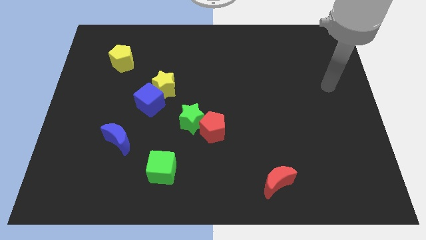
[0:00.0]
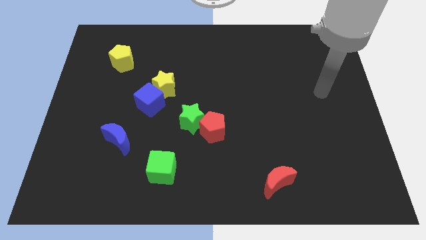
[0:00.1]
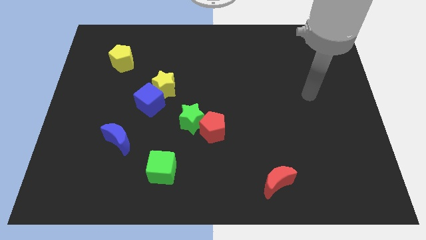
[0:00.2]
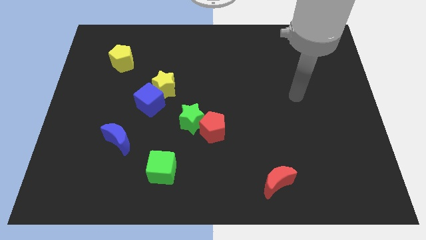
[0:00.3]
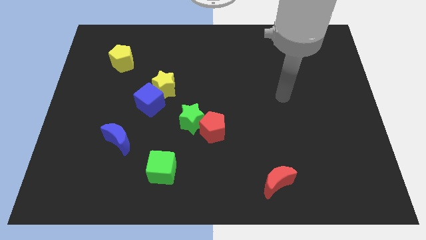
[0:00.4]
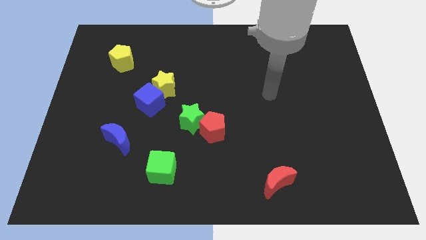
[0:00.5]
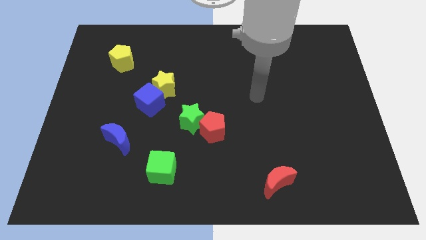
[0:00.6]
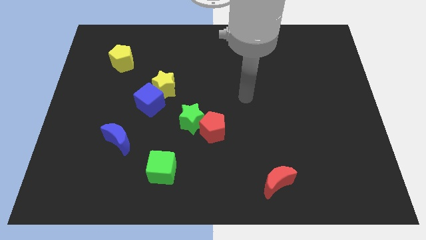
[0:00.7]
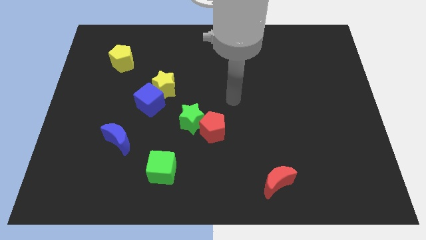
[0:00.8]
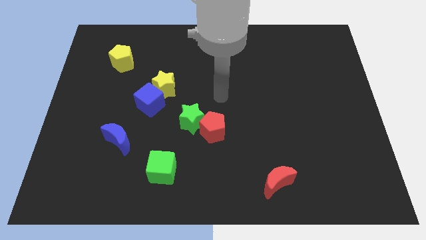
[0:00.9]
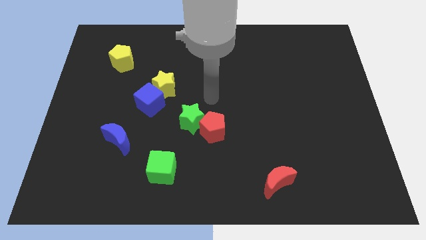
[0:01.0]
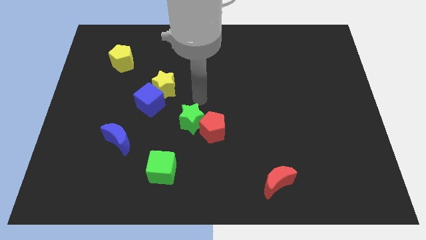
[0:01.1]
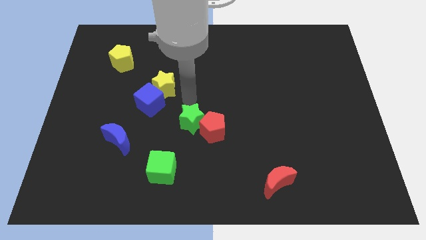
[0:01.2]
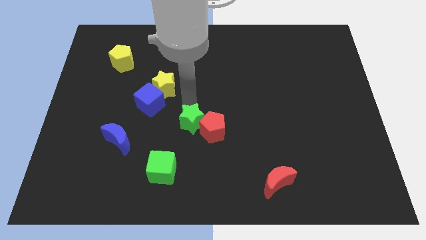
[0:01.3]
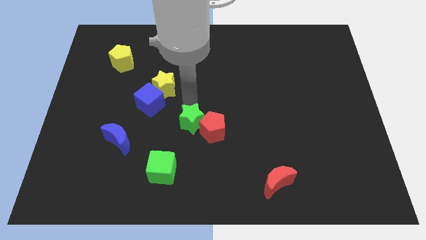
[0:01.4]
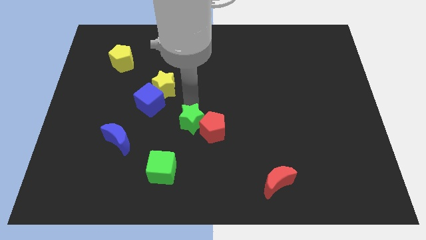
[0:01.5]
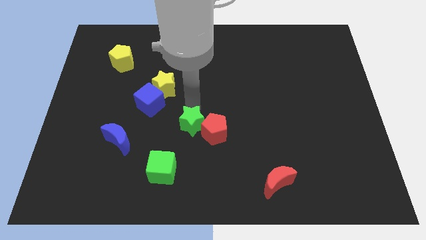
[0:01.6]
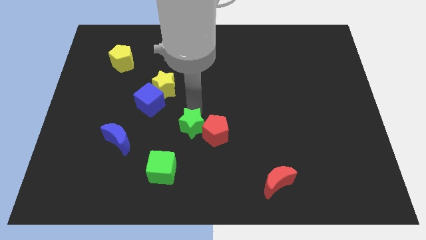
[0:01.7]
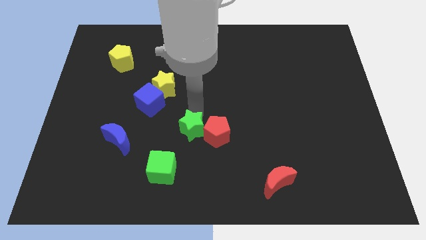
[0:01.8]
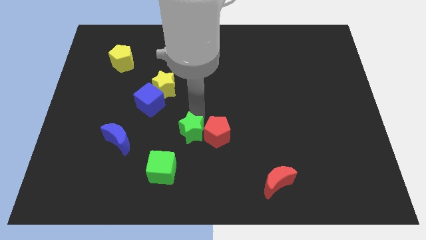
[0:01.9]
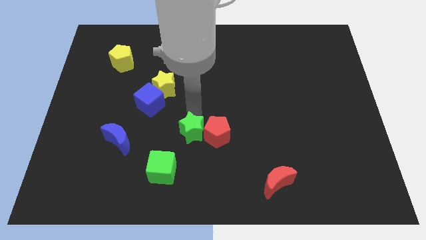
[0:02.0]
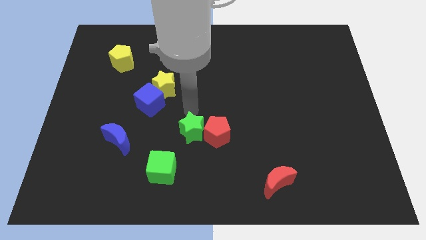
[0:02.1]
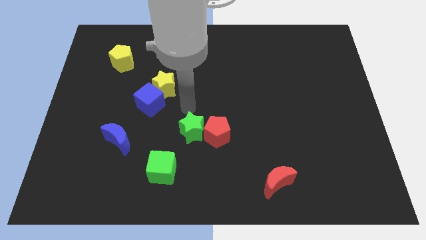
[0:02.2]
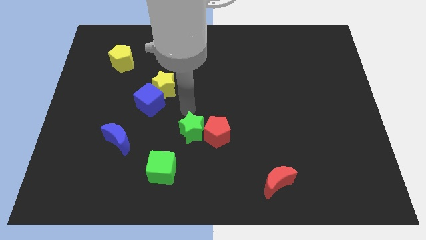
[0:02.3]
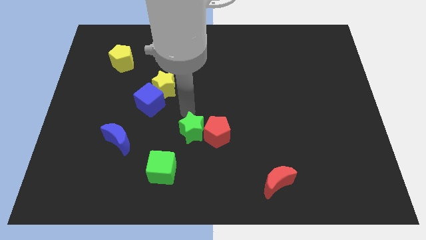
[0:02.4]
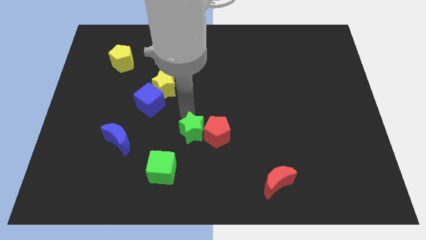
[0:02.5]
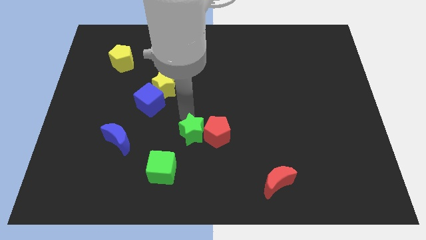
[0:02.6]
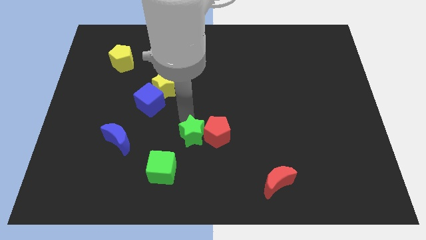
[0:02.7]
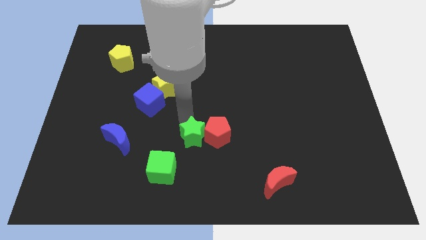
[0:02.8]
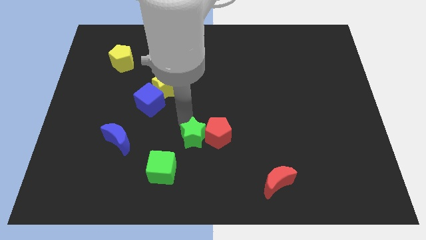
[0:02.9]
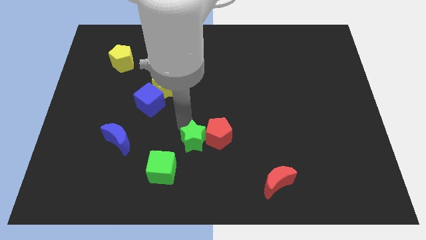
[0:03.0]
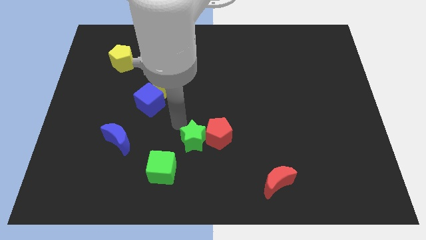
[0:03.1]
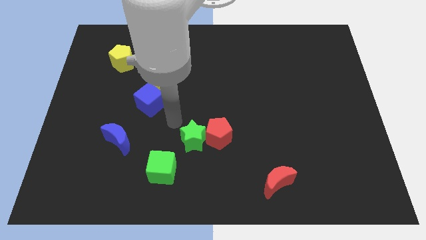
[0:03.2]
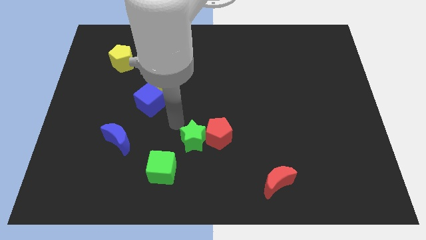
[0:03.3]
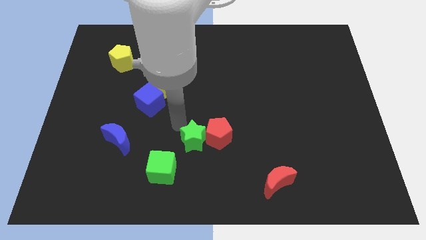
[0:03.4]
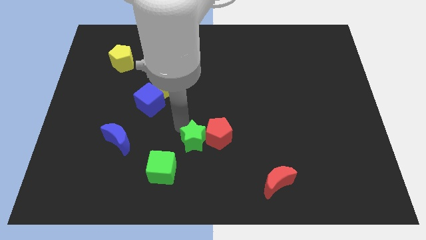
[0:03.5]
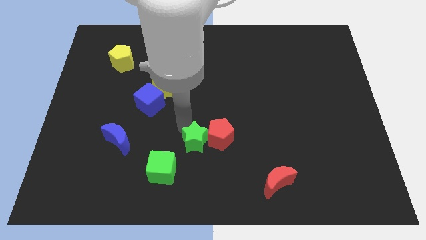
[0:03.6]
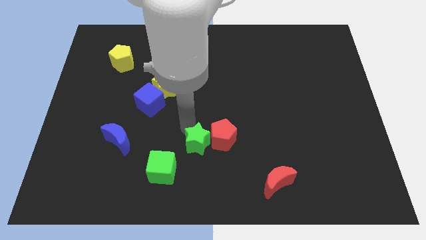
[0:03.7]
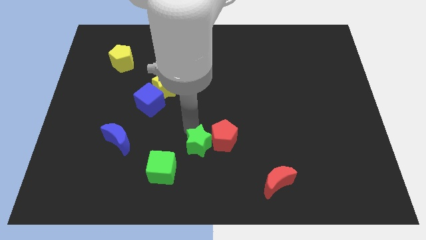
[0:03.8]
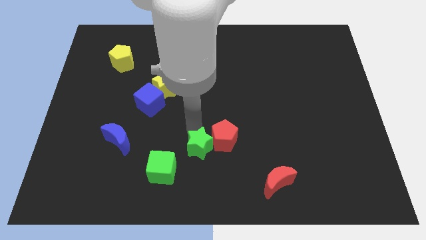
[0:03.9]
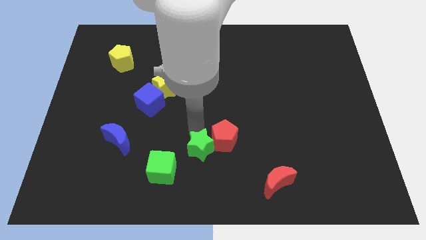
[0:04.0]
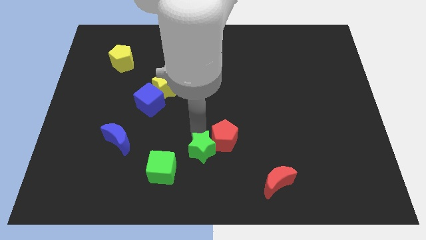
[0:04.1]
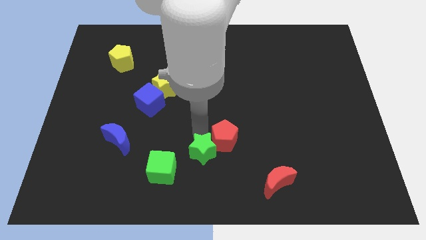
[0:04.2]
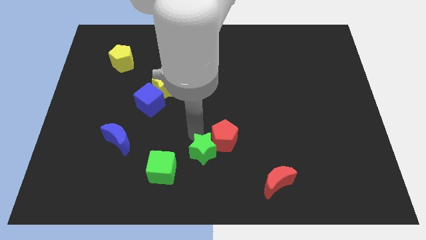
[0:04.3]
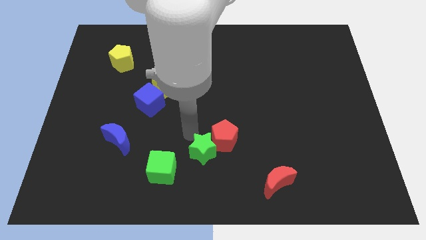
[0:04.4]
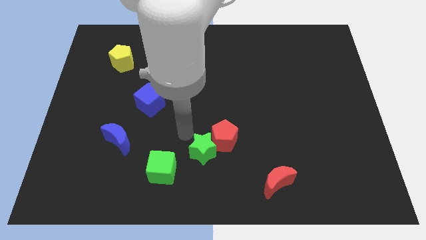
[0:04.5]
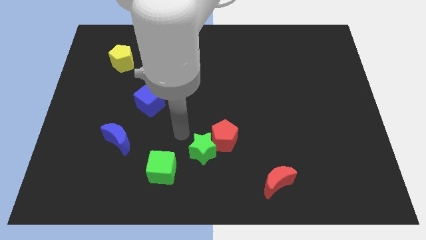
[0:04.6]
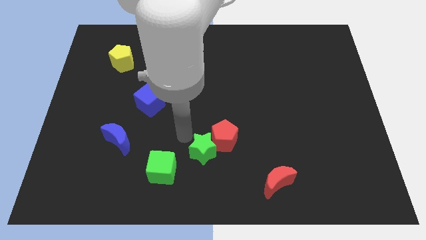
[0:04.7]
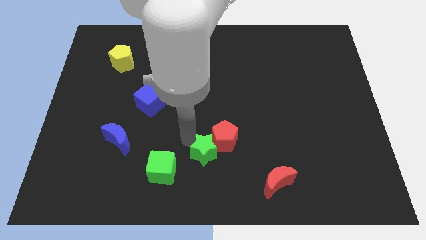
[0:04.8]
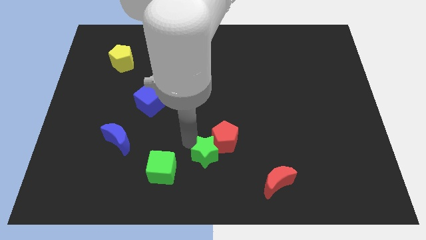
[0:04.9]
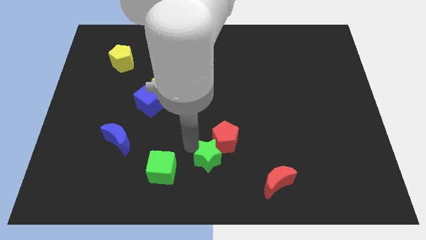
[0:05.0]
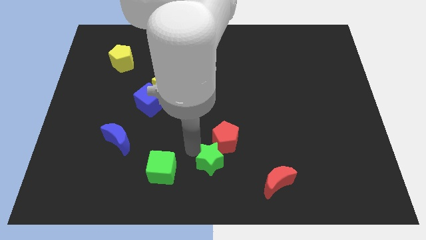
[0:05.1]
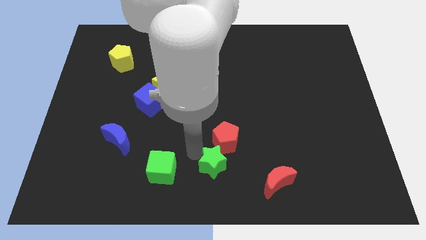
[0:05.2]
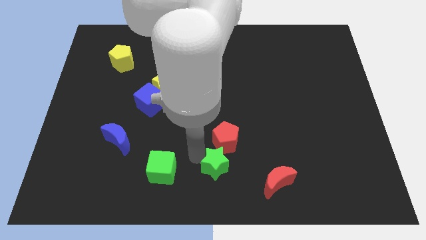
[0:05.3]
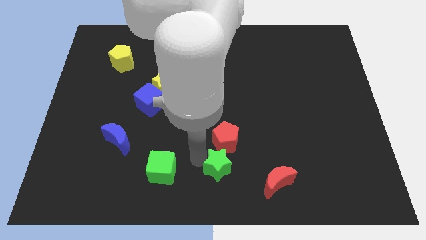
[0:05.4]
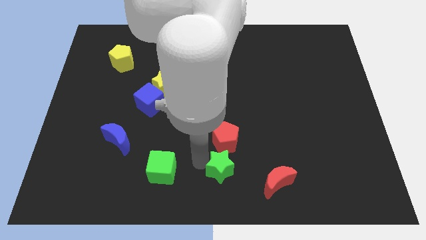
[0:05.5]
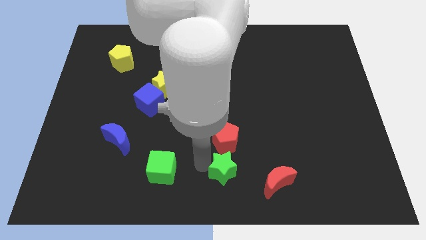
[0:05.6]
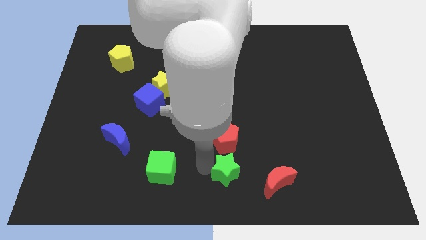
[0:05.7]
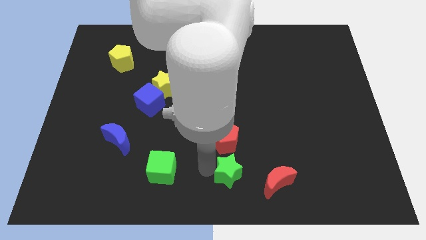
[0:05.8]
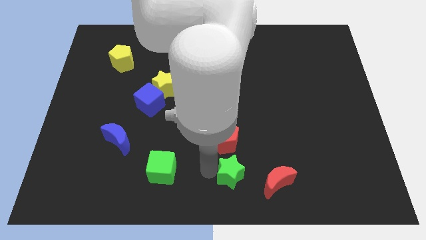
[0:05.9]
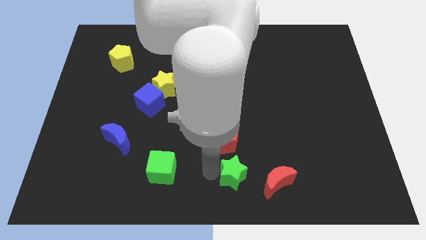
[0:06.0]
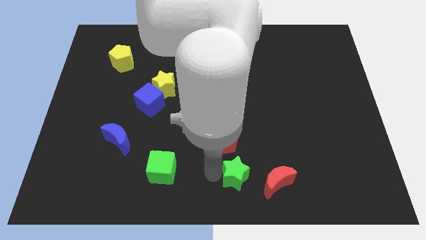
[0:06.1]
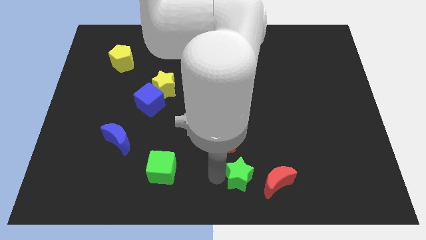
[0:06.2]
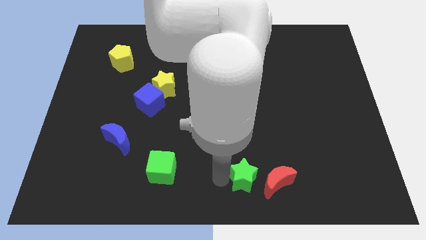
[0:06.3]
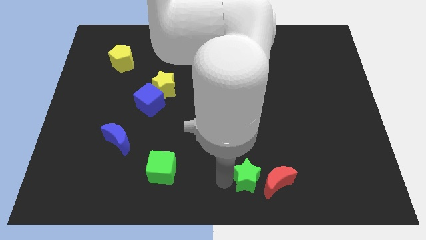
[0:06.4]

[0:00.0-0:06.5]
push the green star close to the red moon
